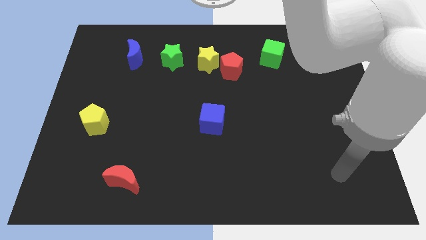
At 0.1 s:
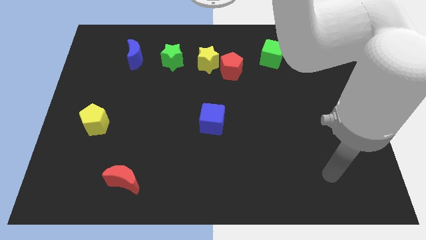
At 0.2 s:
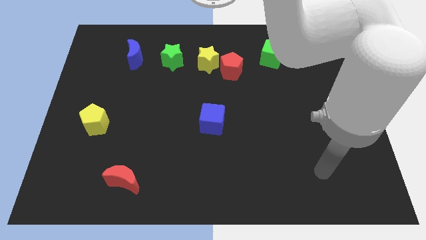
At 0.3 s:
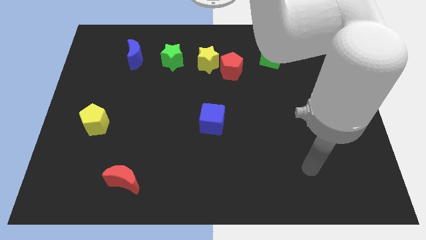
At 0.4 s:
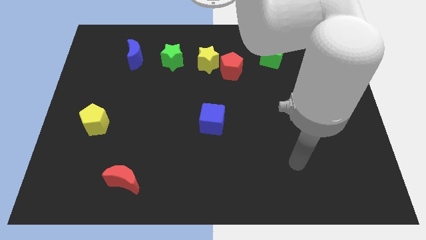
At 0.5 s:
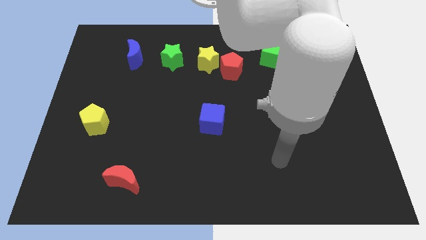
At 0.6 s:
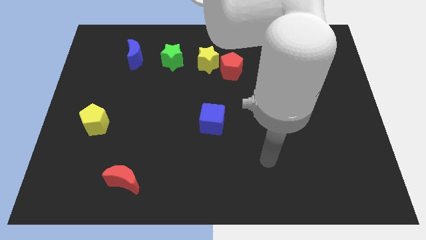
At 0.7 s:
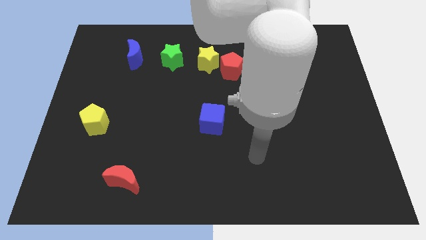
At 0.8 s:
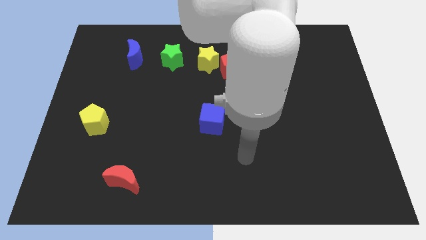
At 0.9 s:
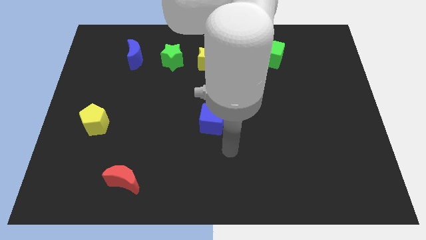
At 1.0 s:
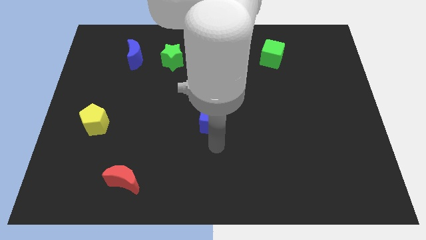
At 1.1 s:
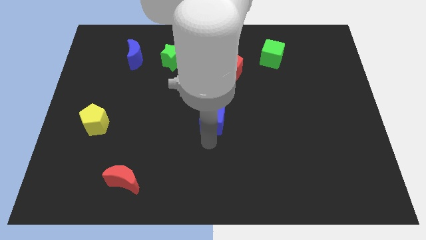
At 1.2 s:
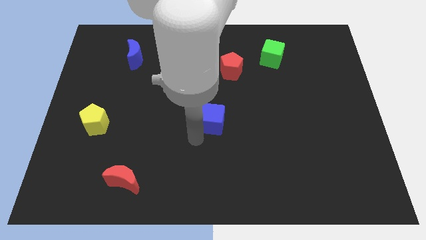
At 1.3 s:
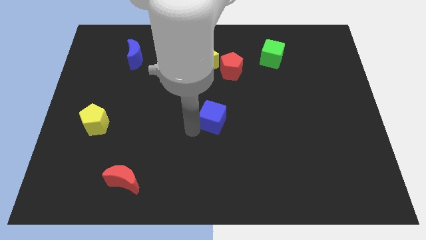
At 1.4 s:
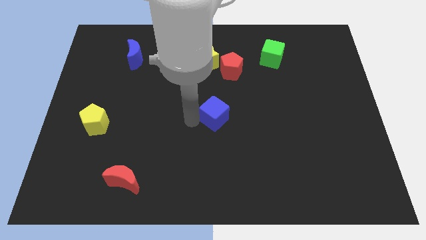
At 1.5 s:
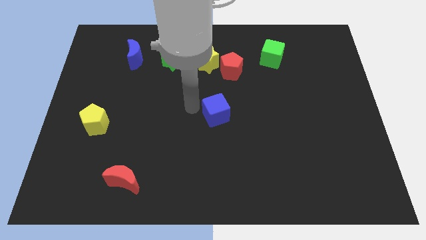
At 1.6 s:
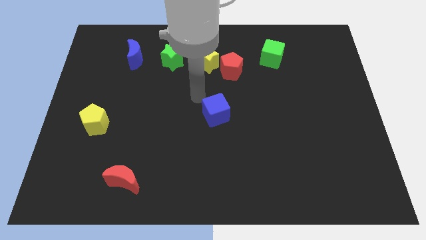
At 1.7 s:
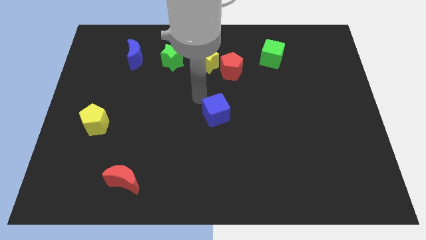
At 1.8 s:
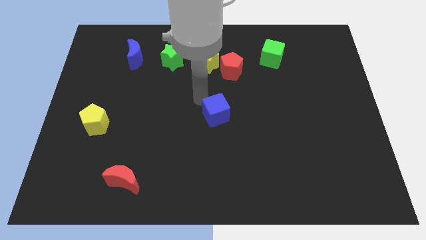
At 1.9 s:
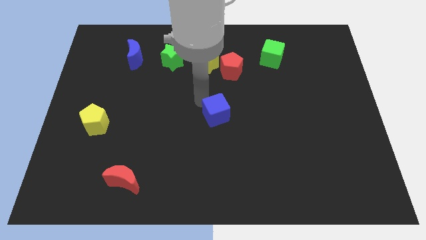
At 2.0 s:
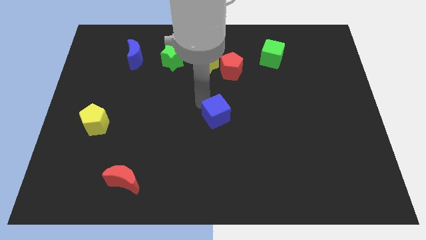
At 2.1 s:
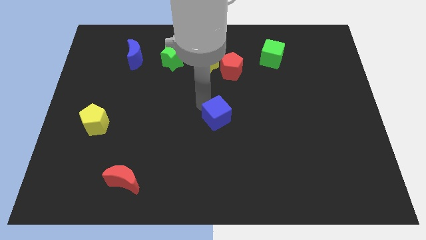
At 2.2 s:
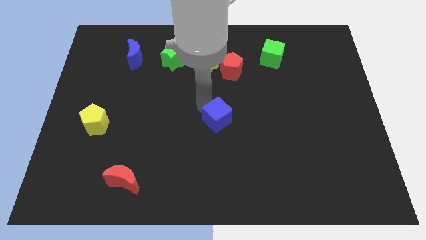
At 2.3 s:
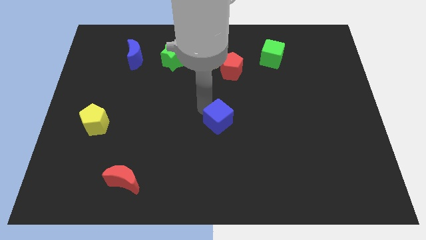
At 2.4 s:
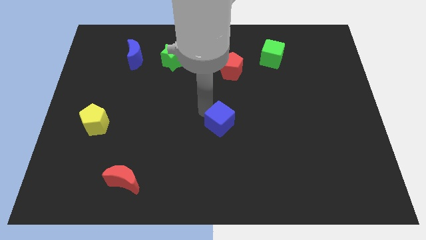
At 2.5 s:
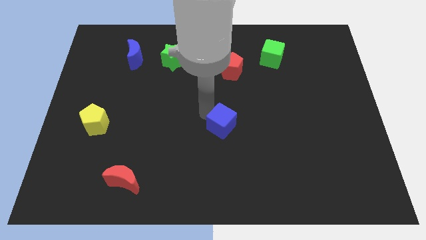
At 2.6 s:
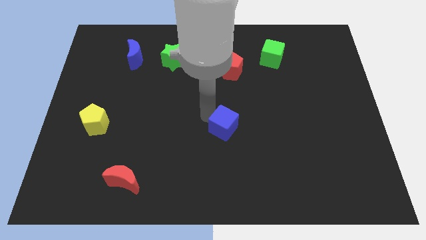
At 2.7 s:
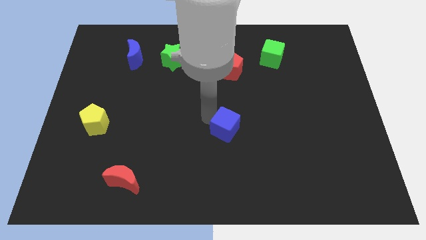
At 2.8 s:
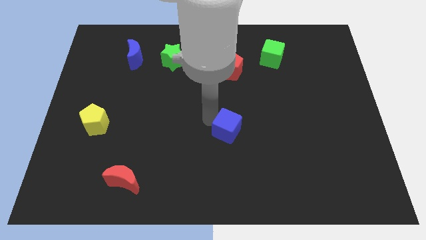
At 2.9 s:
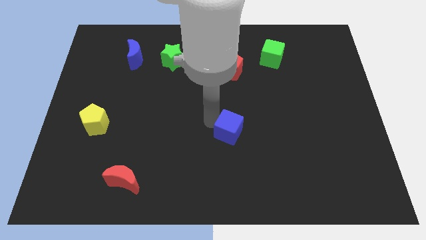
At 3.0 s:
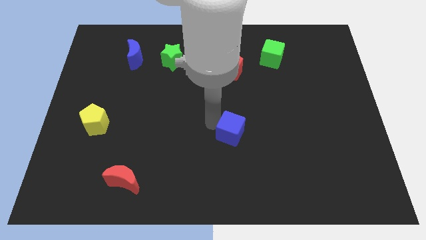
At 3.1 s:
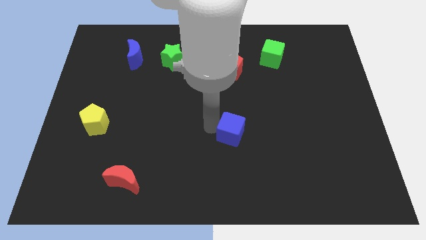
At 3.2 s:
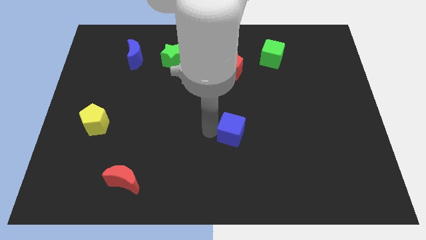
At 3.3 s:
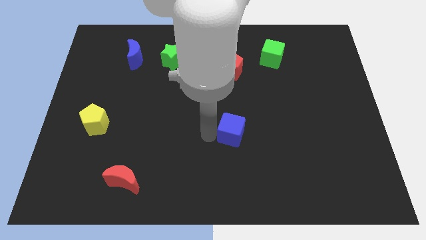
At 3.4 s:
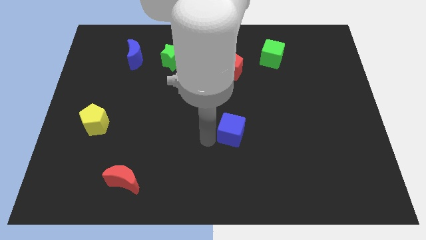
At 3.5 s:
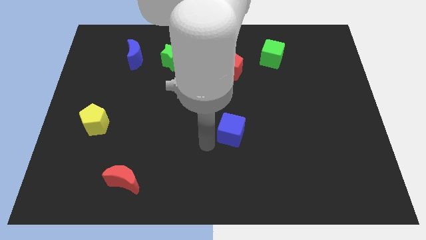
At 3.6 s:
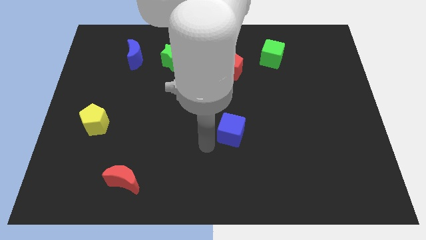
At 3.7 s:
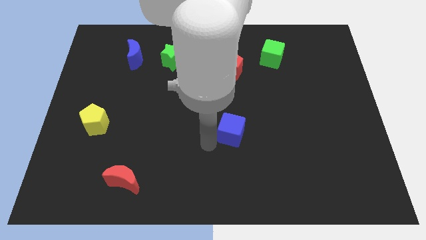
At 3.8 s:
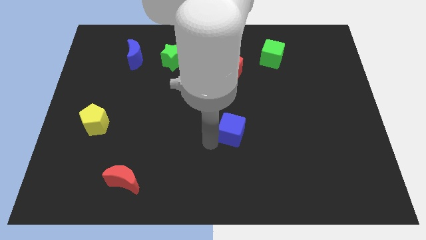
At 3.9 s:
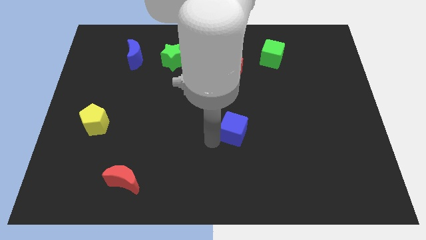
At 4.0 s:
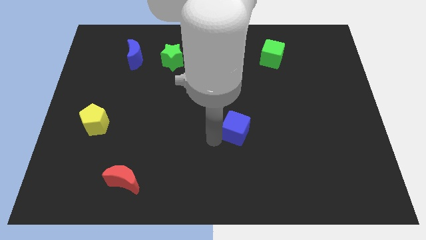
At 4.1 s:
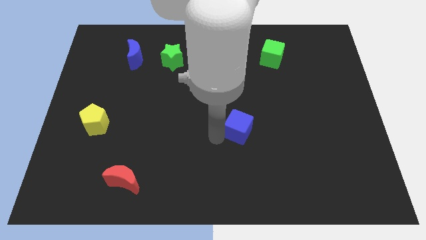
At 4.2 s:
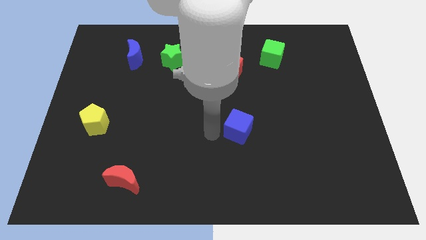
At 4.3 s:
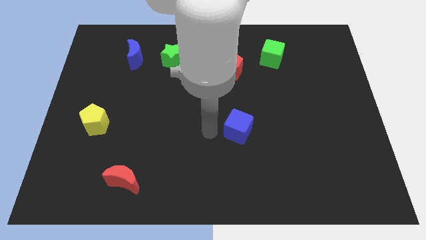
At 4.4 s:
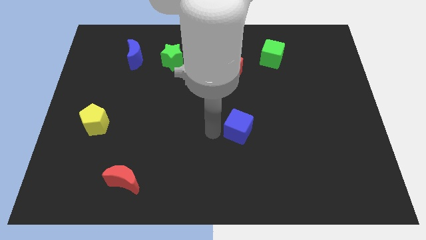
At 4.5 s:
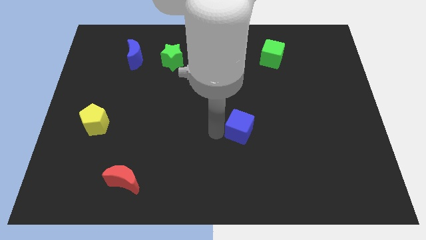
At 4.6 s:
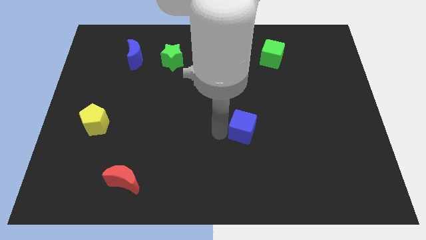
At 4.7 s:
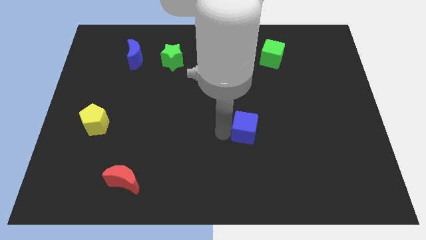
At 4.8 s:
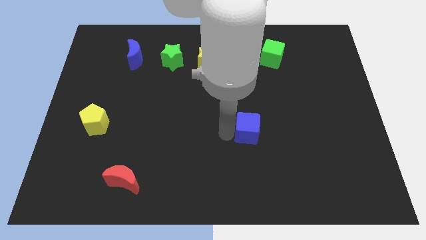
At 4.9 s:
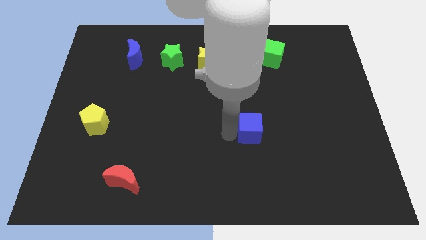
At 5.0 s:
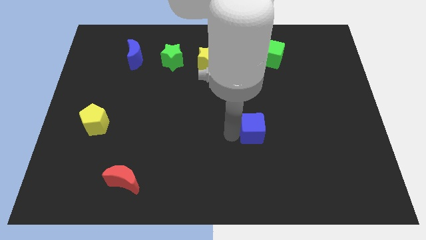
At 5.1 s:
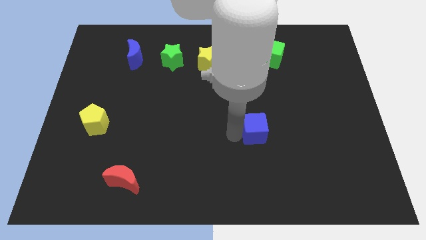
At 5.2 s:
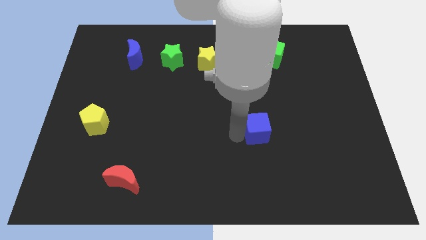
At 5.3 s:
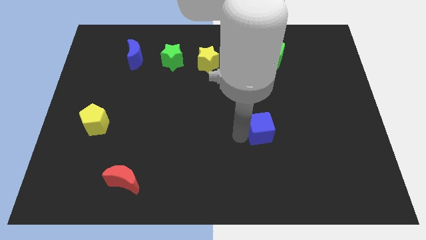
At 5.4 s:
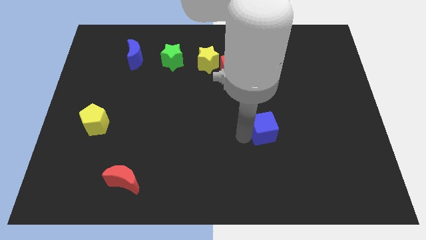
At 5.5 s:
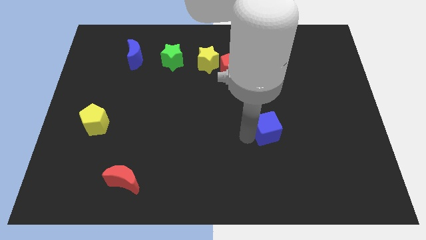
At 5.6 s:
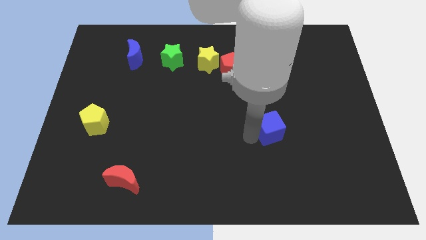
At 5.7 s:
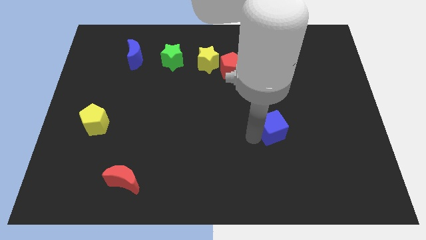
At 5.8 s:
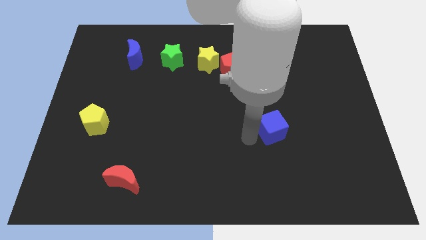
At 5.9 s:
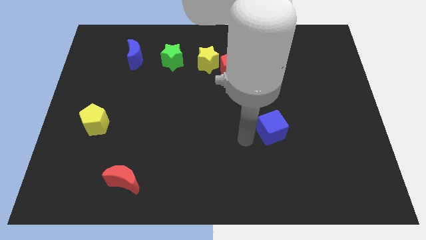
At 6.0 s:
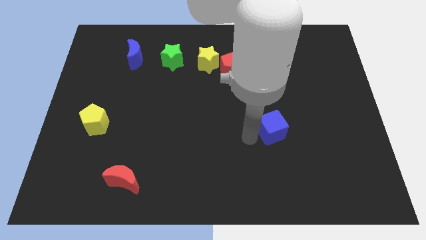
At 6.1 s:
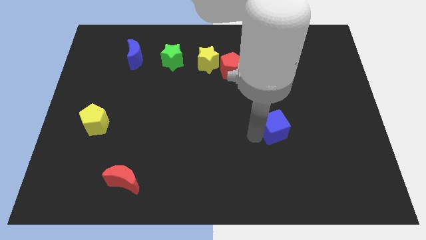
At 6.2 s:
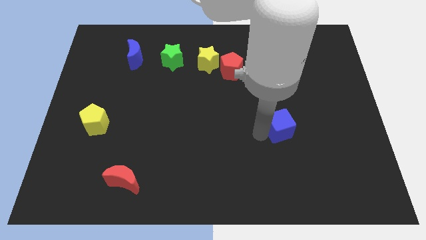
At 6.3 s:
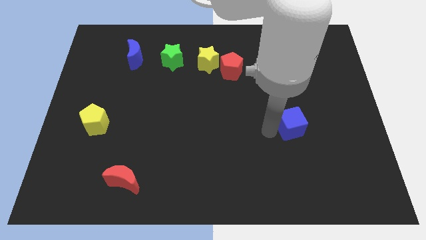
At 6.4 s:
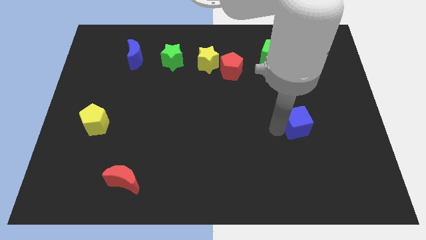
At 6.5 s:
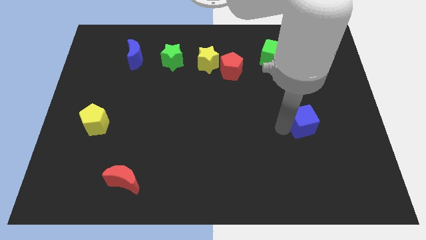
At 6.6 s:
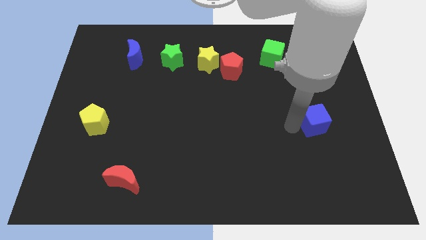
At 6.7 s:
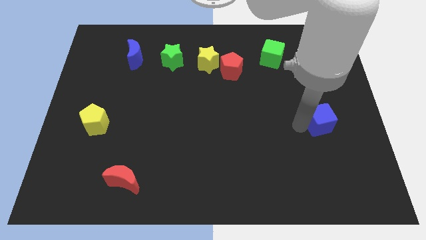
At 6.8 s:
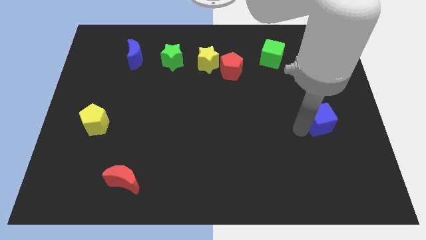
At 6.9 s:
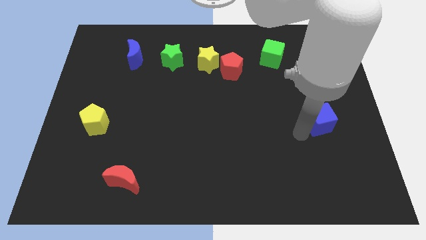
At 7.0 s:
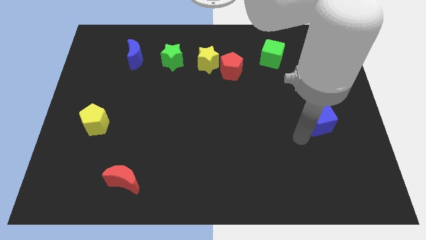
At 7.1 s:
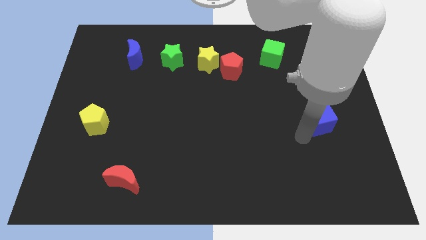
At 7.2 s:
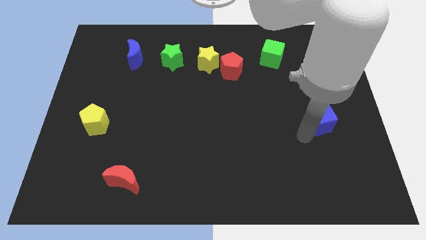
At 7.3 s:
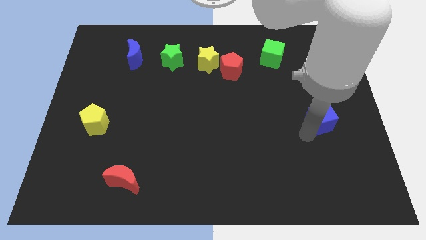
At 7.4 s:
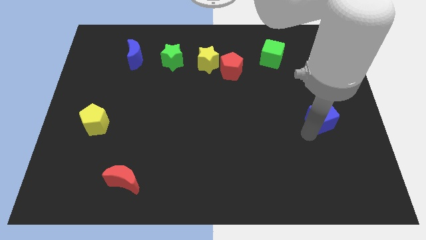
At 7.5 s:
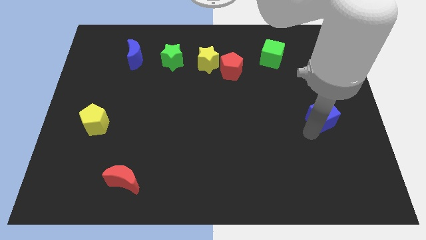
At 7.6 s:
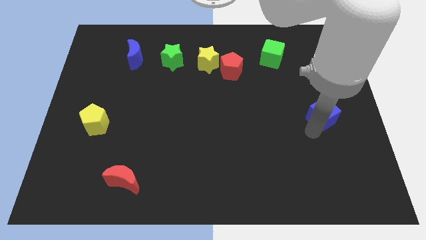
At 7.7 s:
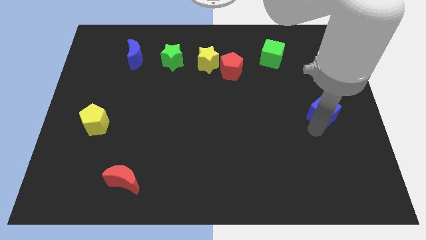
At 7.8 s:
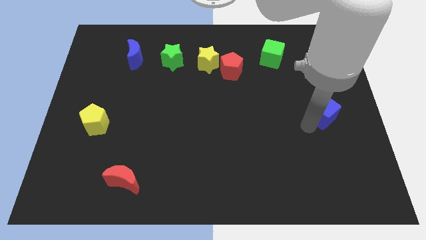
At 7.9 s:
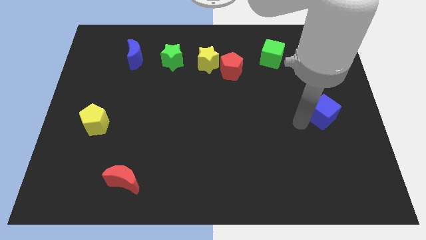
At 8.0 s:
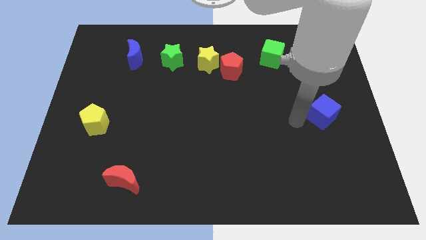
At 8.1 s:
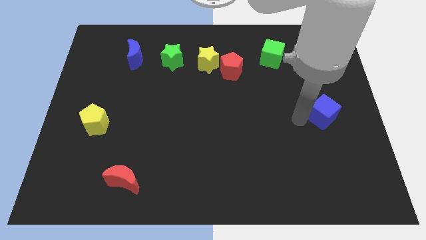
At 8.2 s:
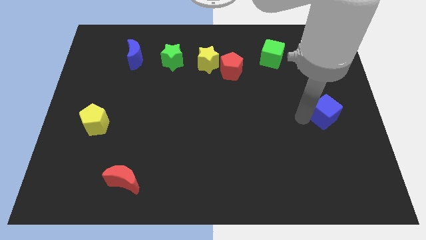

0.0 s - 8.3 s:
move the blue cube to the right side of the board
